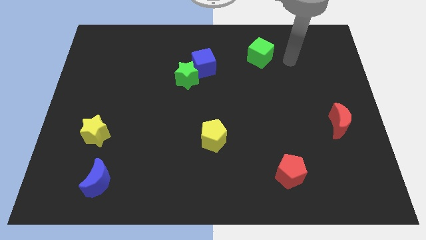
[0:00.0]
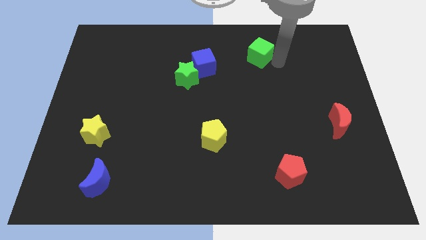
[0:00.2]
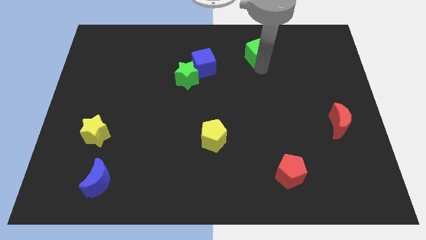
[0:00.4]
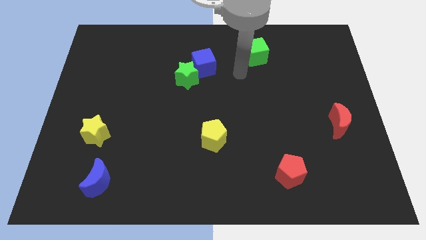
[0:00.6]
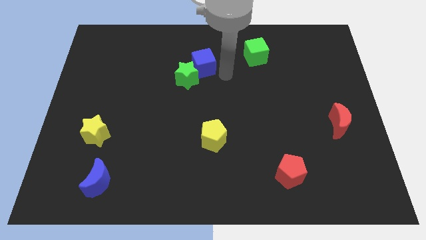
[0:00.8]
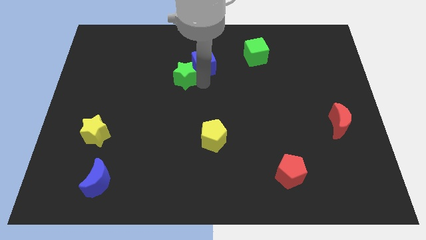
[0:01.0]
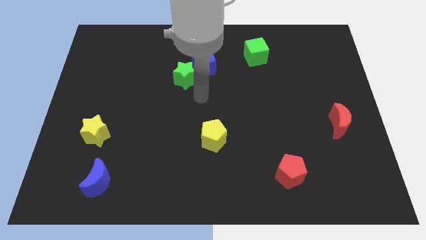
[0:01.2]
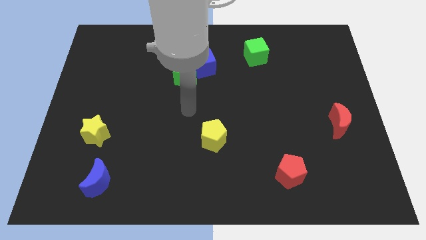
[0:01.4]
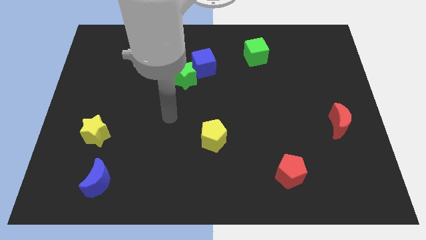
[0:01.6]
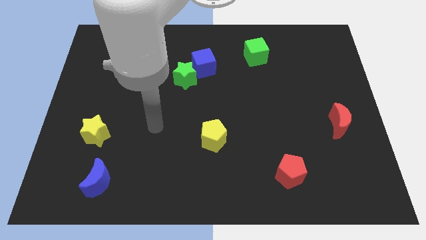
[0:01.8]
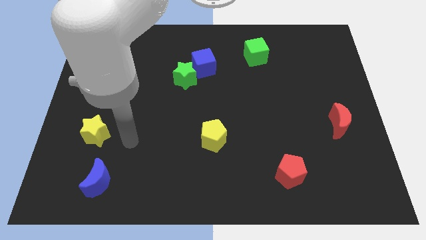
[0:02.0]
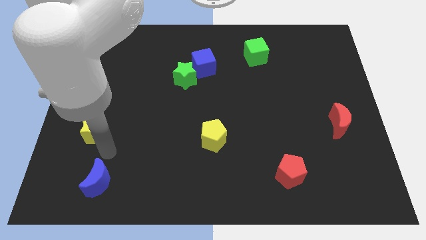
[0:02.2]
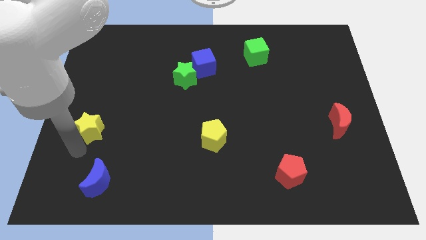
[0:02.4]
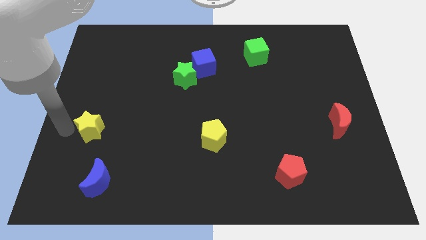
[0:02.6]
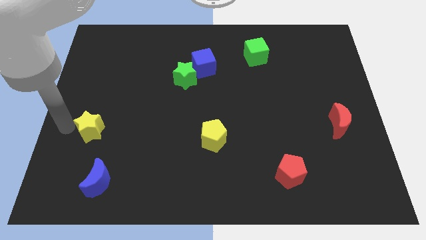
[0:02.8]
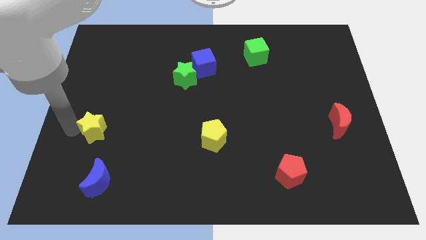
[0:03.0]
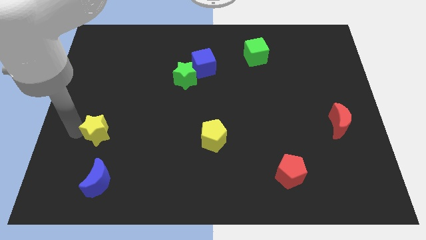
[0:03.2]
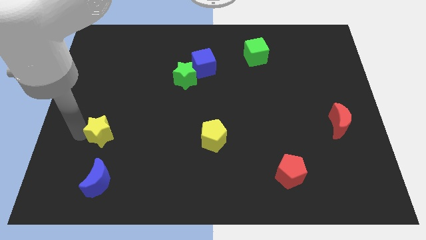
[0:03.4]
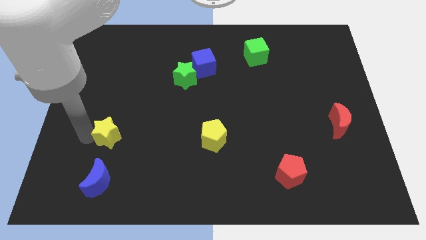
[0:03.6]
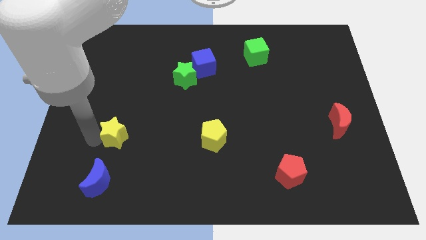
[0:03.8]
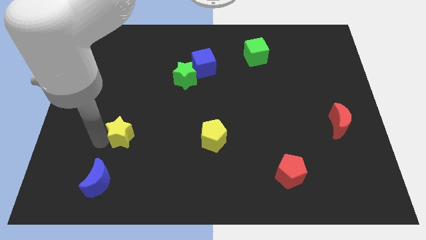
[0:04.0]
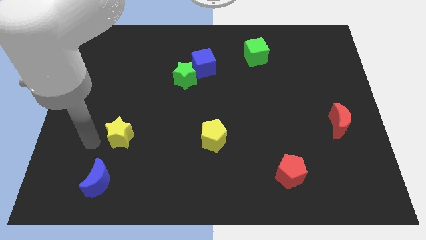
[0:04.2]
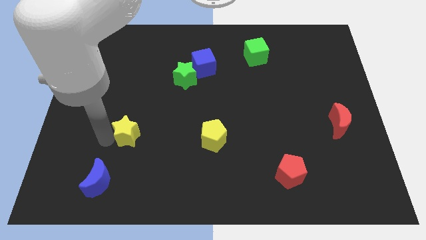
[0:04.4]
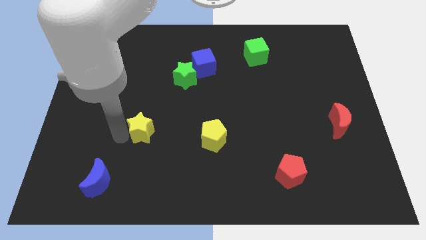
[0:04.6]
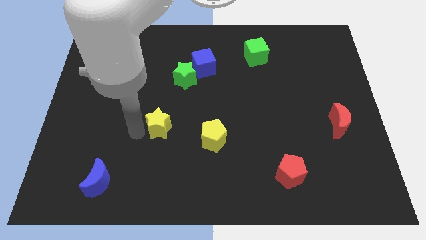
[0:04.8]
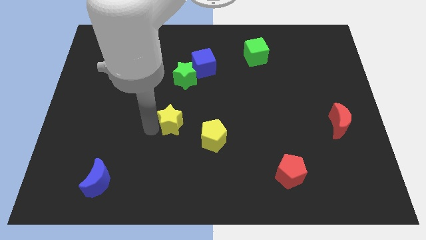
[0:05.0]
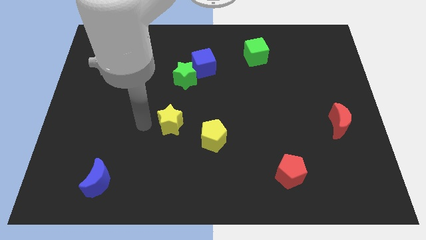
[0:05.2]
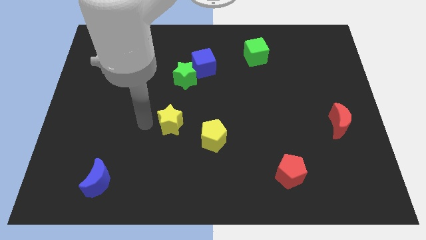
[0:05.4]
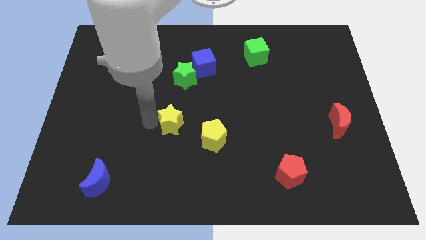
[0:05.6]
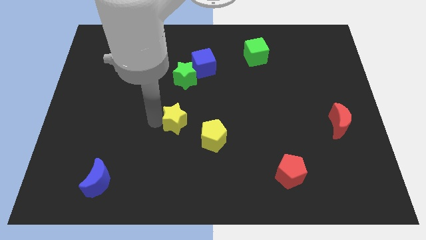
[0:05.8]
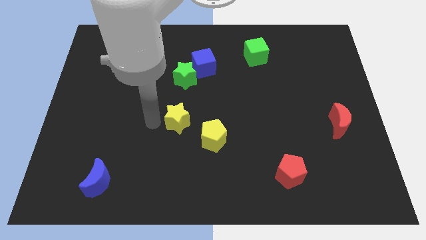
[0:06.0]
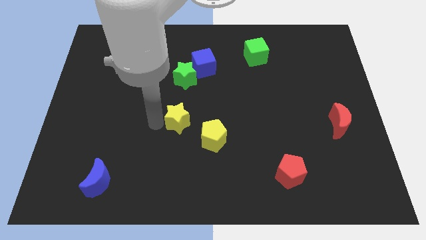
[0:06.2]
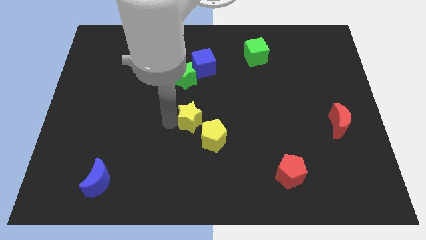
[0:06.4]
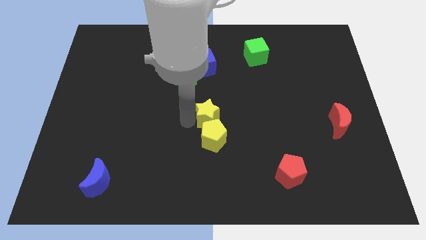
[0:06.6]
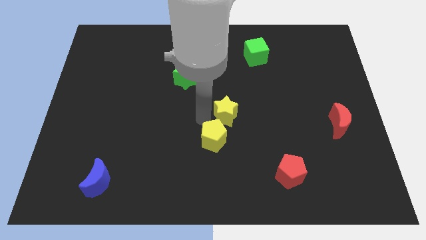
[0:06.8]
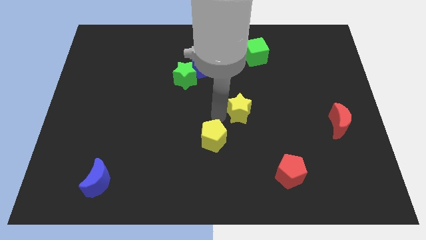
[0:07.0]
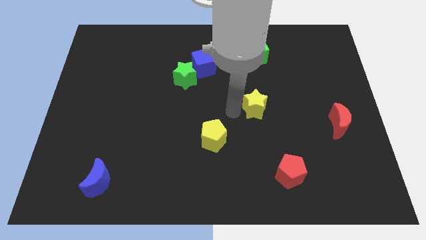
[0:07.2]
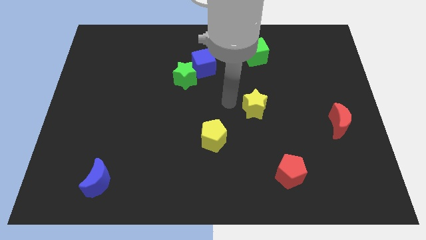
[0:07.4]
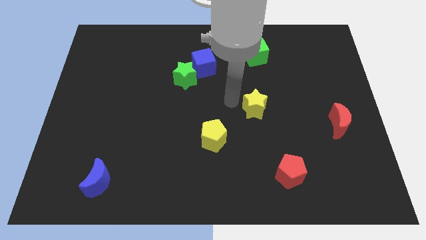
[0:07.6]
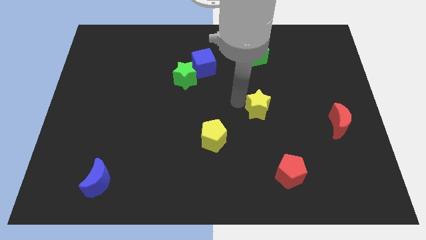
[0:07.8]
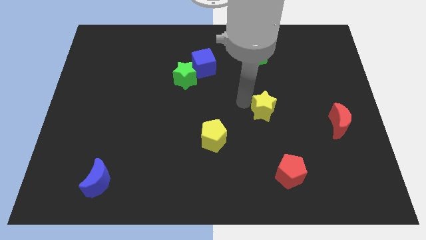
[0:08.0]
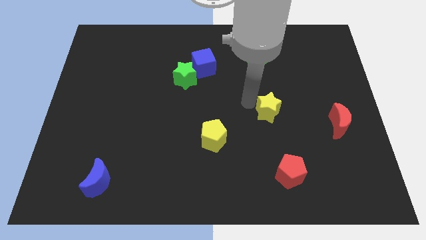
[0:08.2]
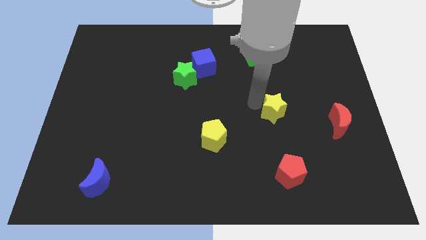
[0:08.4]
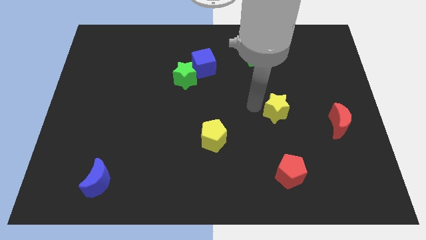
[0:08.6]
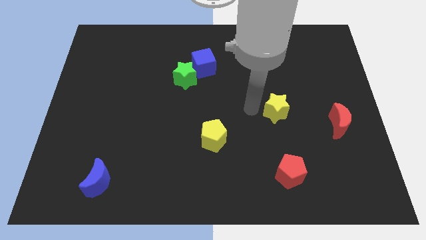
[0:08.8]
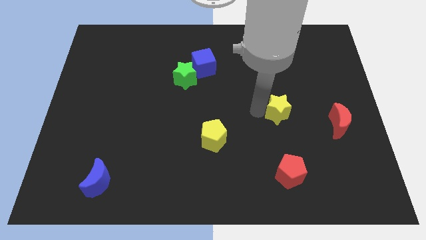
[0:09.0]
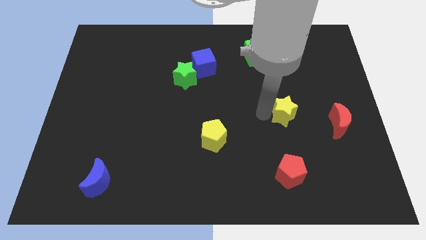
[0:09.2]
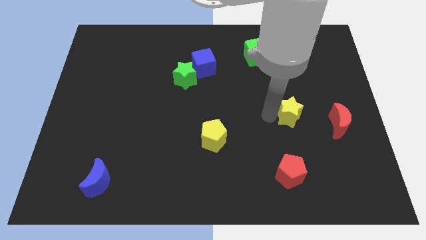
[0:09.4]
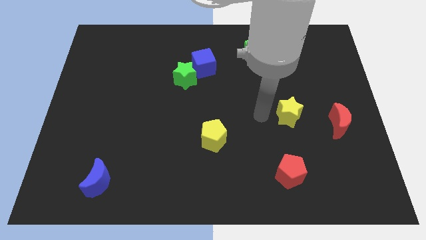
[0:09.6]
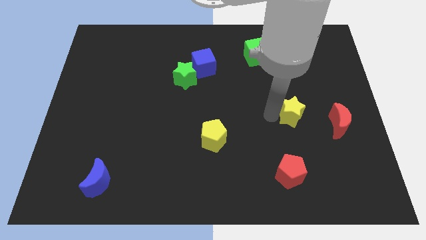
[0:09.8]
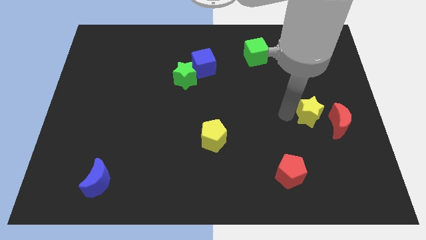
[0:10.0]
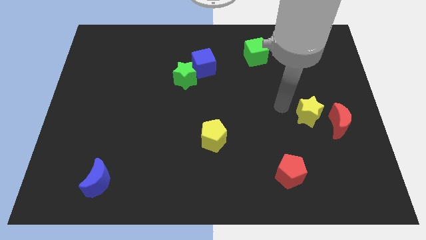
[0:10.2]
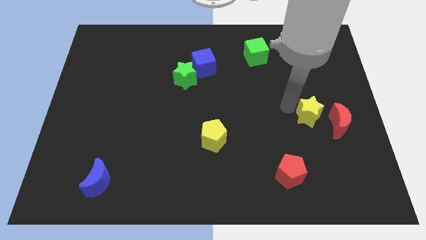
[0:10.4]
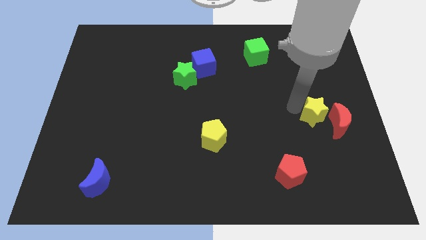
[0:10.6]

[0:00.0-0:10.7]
move the yellow star next to the red moon

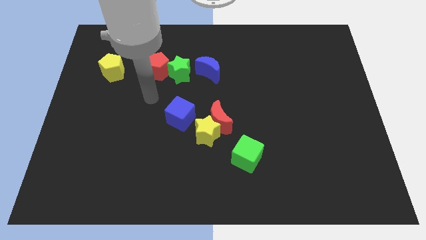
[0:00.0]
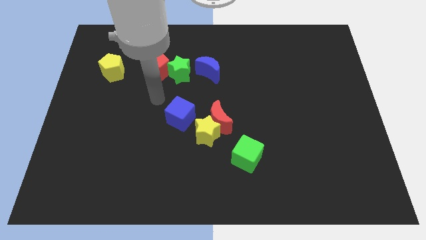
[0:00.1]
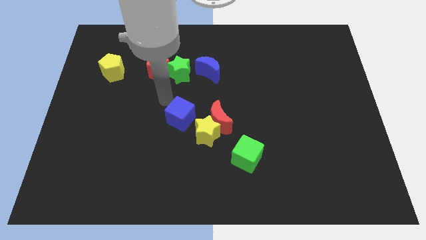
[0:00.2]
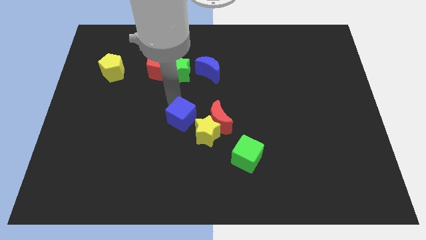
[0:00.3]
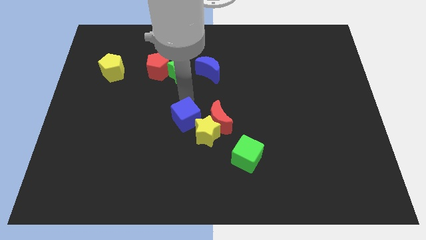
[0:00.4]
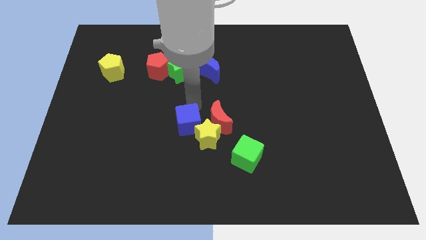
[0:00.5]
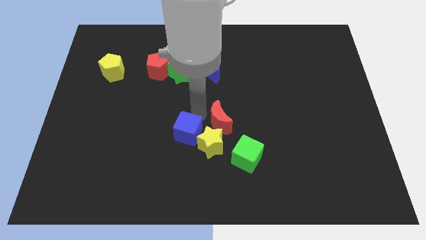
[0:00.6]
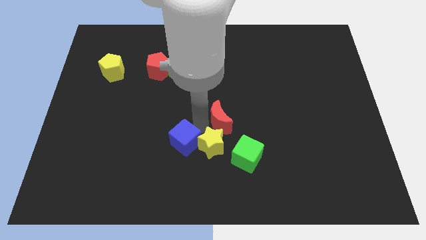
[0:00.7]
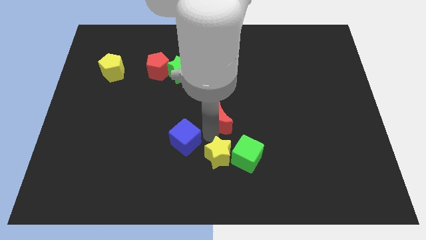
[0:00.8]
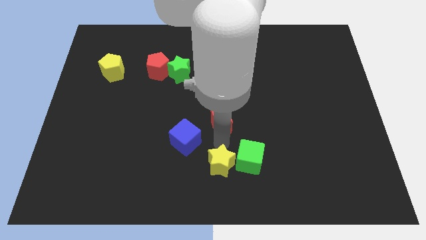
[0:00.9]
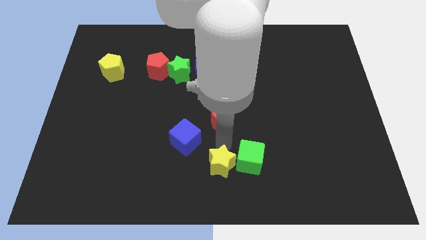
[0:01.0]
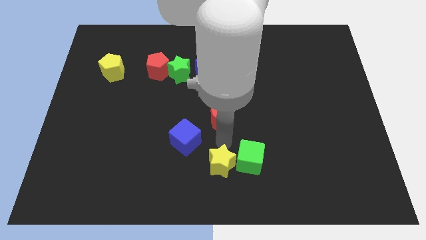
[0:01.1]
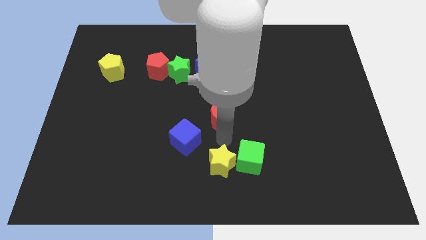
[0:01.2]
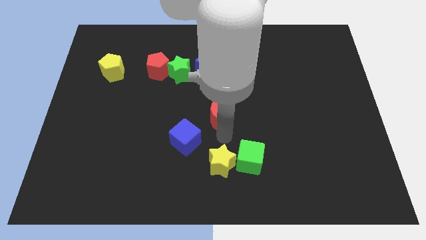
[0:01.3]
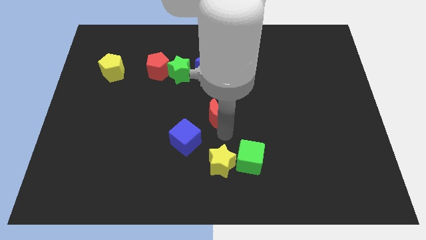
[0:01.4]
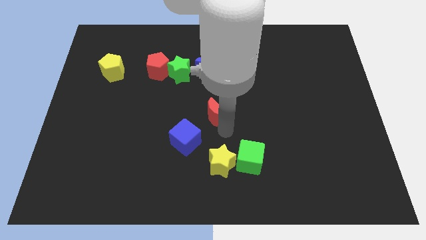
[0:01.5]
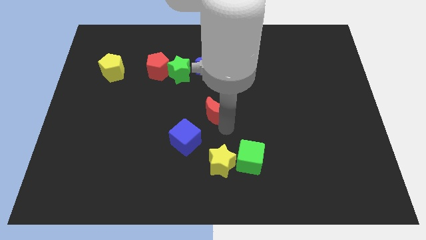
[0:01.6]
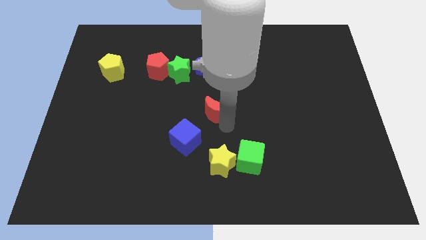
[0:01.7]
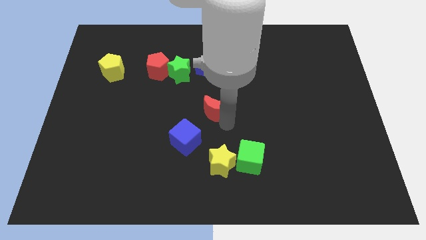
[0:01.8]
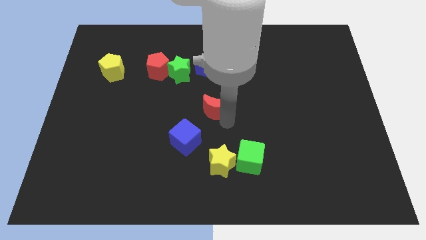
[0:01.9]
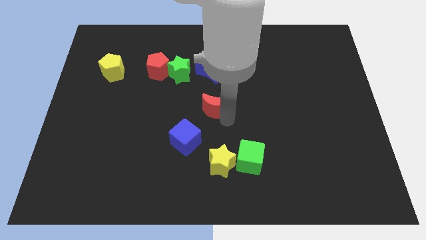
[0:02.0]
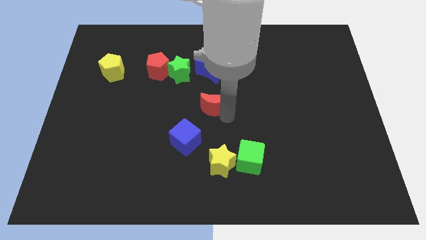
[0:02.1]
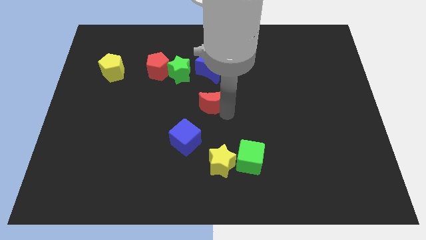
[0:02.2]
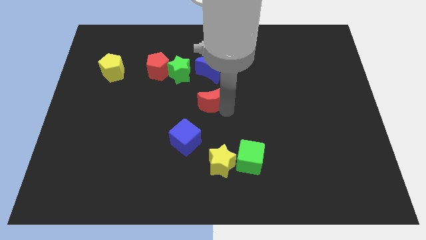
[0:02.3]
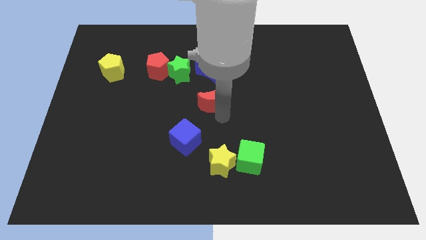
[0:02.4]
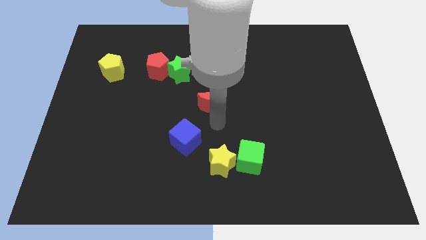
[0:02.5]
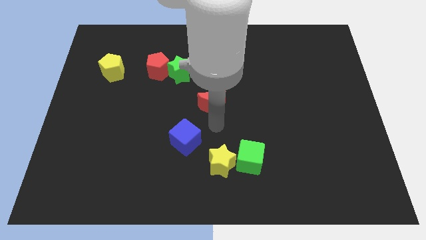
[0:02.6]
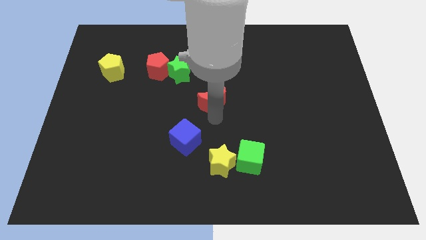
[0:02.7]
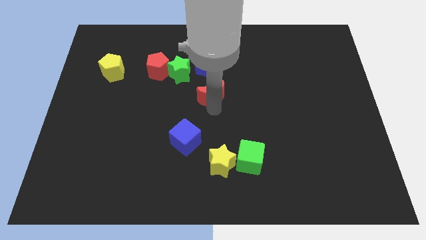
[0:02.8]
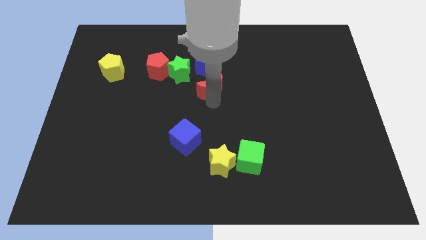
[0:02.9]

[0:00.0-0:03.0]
slide the red moon to the blue moon
